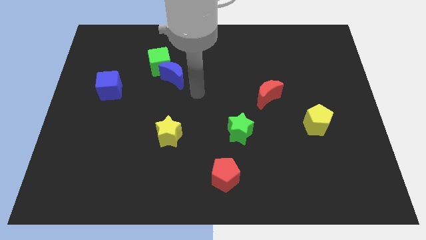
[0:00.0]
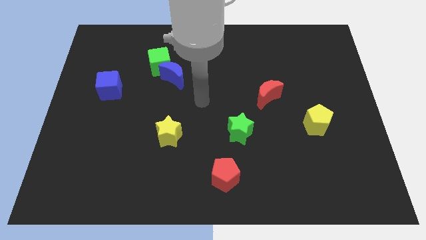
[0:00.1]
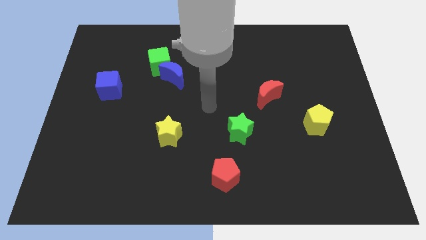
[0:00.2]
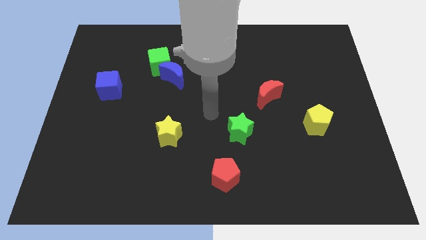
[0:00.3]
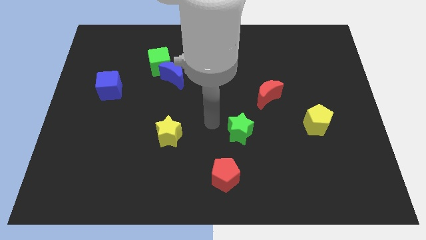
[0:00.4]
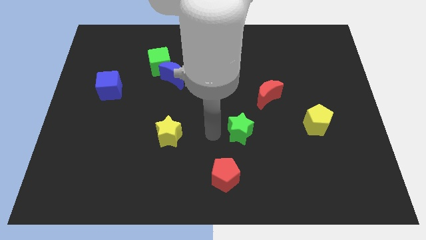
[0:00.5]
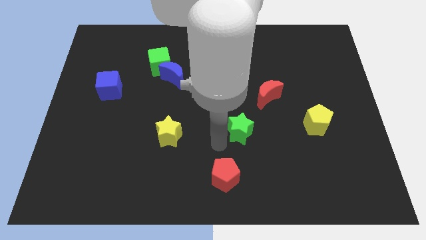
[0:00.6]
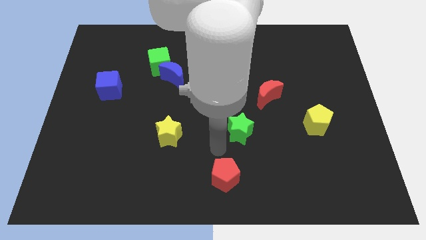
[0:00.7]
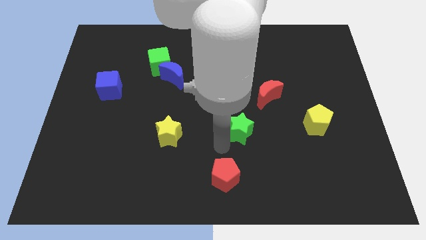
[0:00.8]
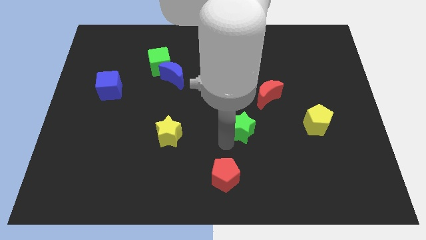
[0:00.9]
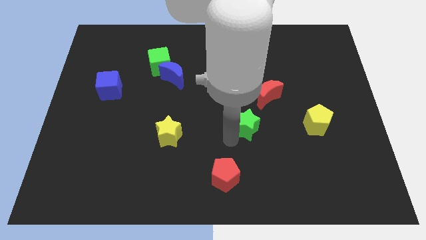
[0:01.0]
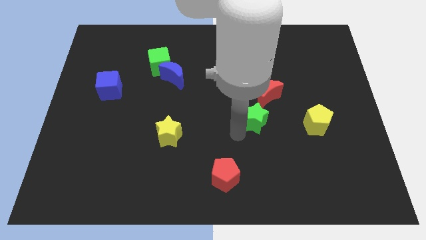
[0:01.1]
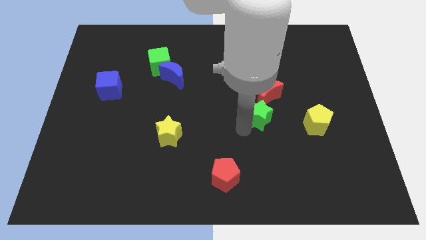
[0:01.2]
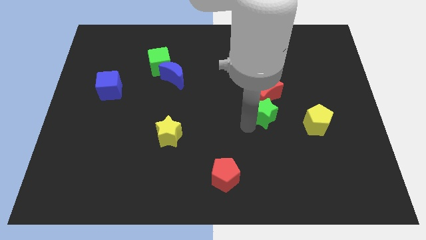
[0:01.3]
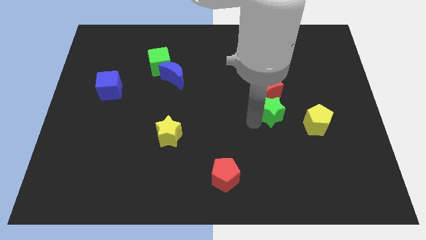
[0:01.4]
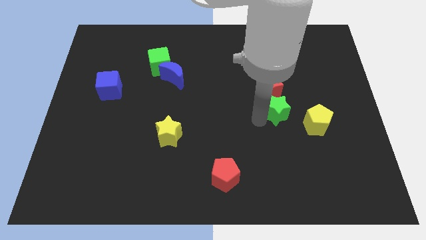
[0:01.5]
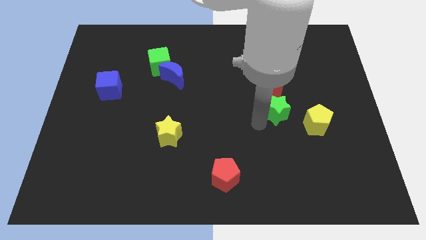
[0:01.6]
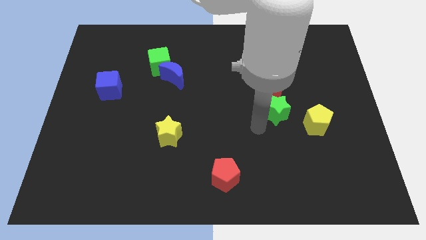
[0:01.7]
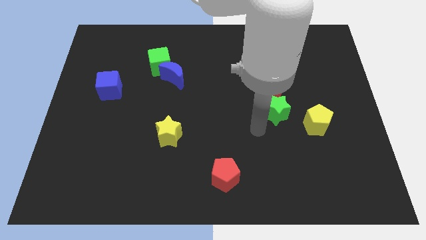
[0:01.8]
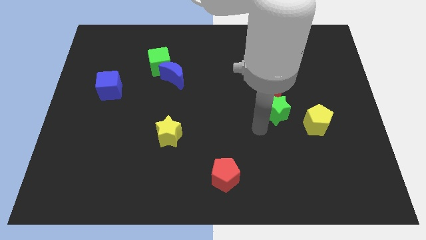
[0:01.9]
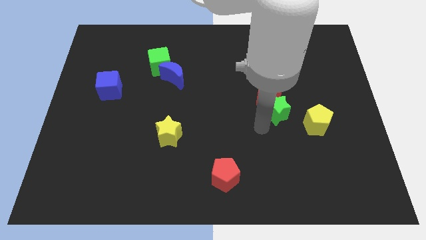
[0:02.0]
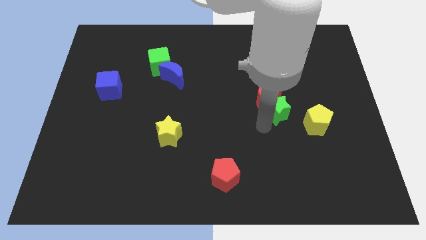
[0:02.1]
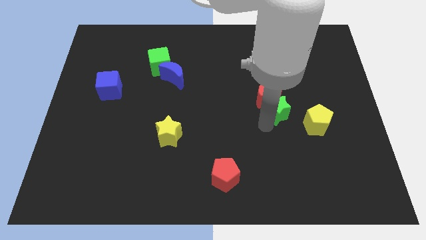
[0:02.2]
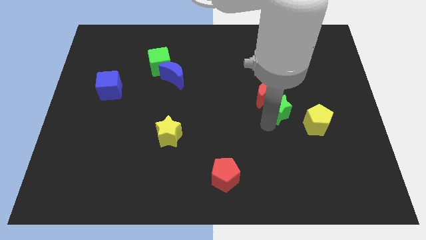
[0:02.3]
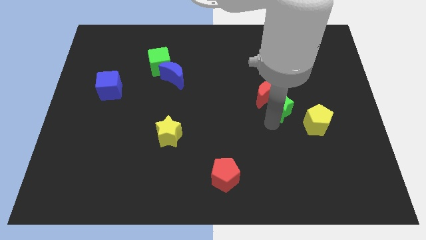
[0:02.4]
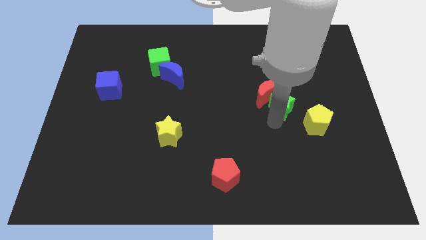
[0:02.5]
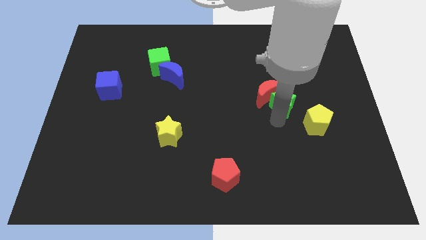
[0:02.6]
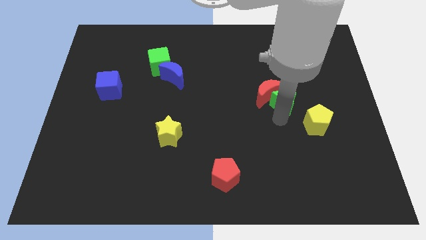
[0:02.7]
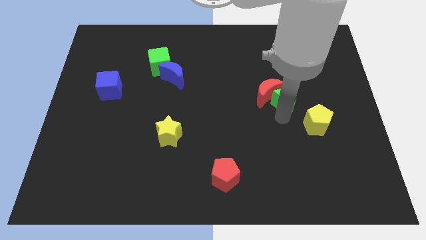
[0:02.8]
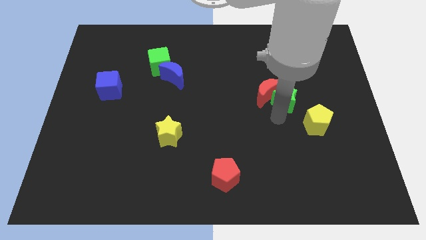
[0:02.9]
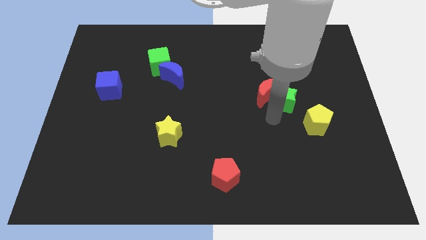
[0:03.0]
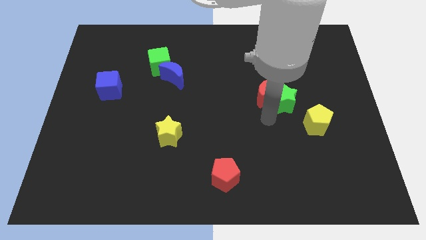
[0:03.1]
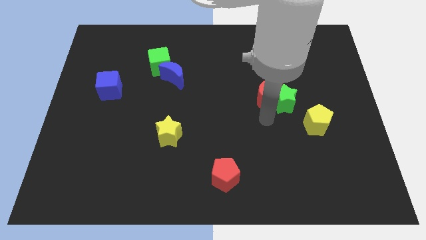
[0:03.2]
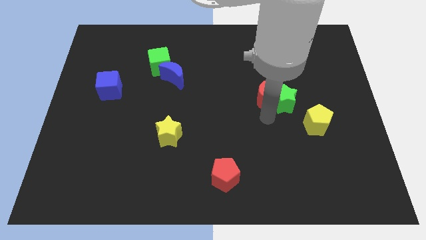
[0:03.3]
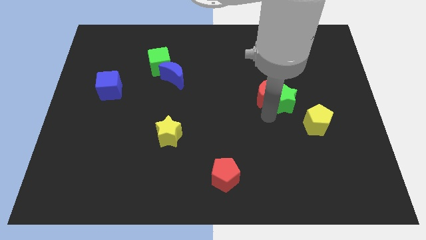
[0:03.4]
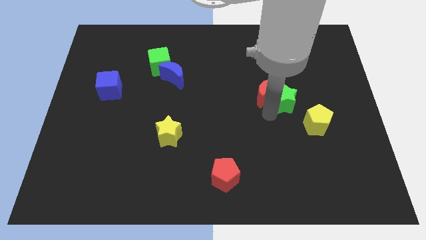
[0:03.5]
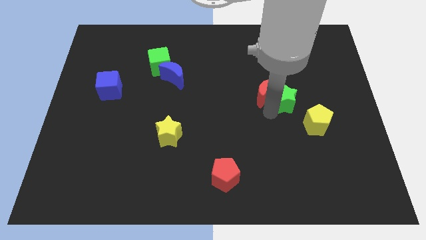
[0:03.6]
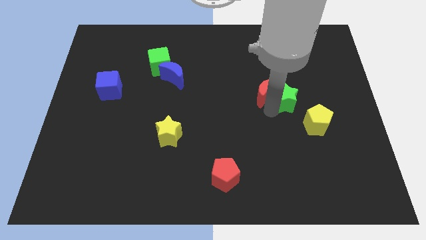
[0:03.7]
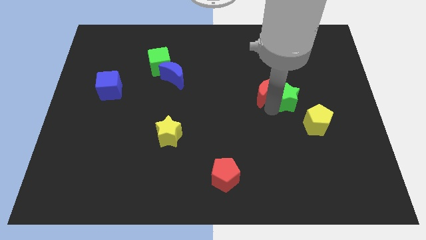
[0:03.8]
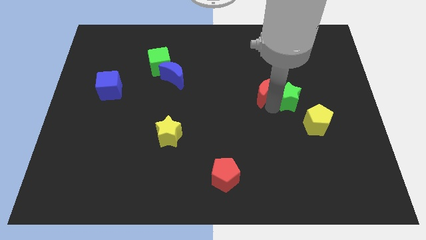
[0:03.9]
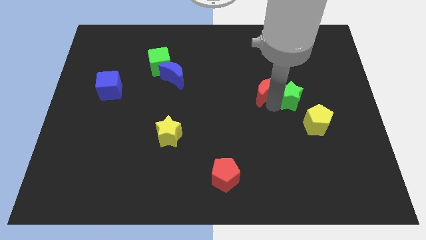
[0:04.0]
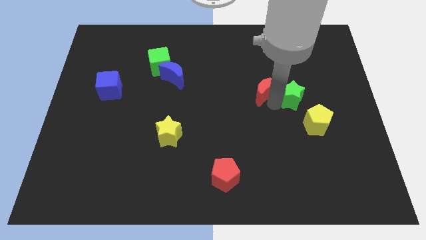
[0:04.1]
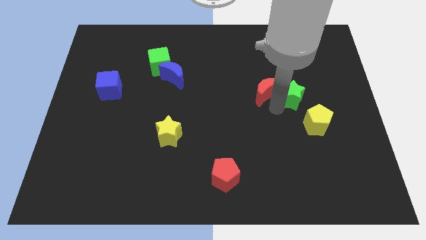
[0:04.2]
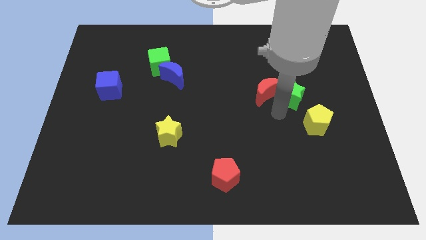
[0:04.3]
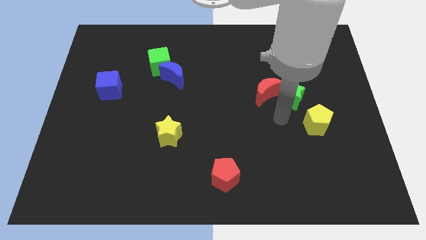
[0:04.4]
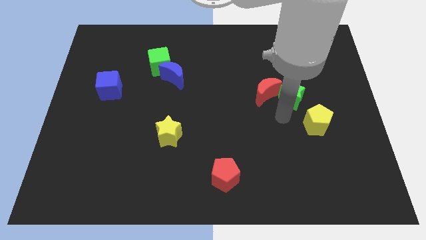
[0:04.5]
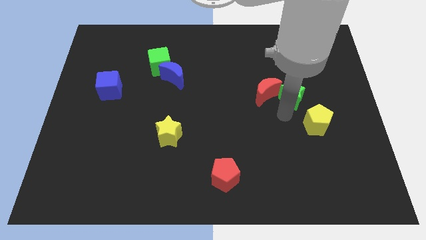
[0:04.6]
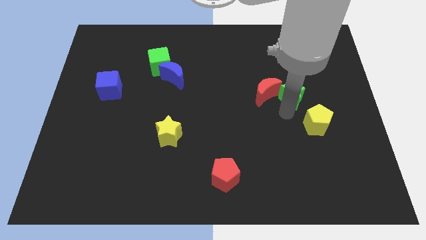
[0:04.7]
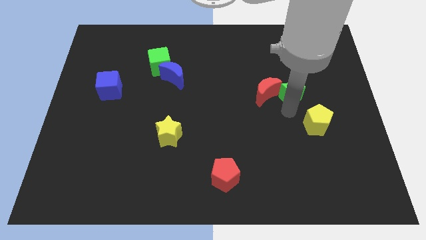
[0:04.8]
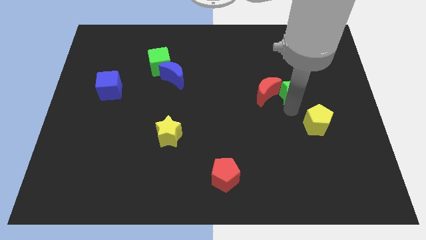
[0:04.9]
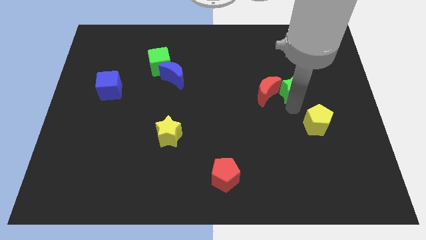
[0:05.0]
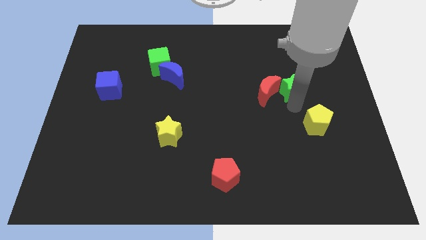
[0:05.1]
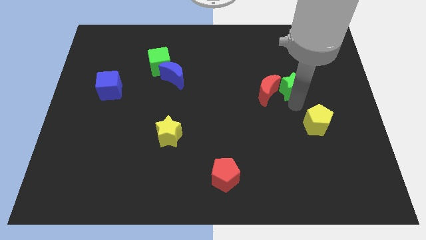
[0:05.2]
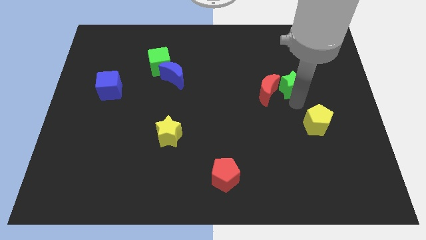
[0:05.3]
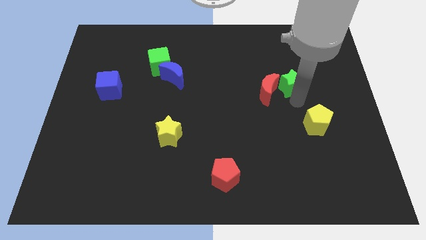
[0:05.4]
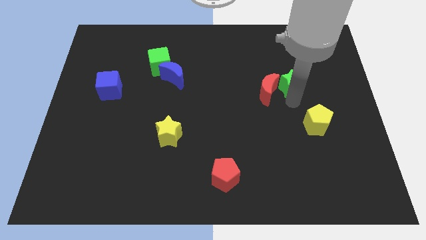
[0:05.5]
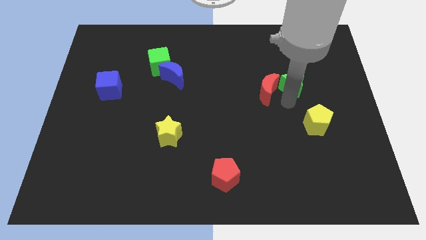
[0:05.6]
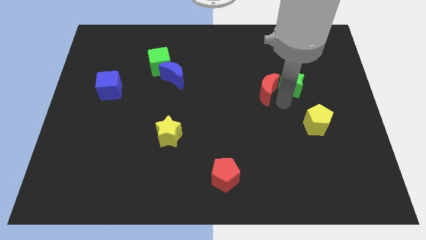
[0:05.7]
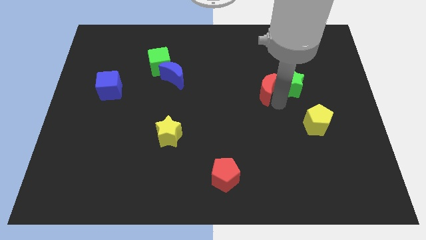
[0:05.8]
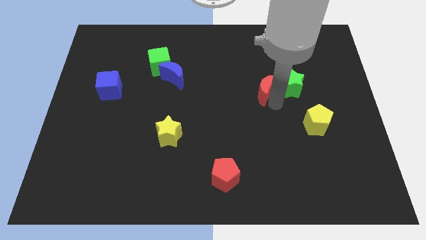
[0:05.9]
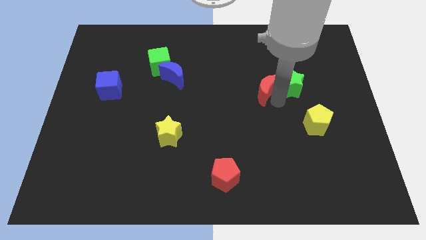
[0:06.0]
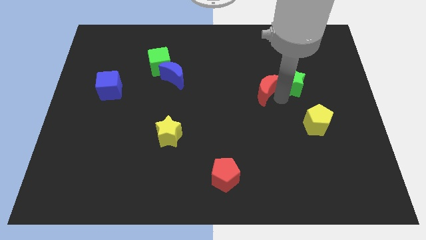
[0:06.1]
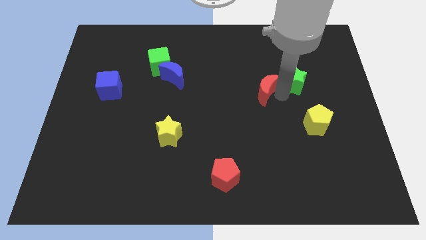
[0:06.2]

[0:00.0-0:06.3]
move the green star upwards and right diagonally

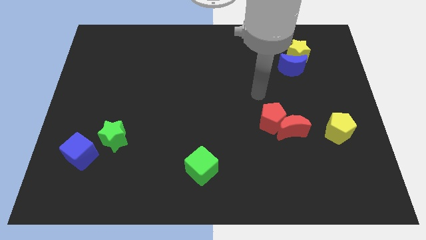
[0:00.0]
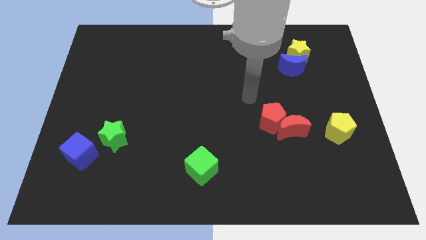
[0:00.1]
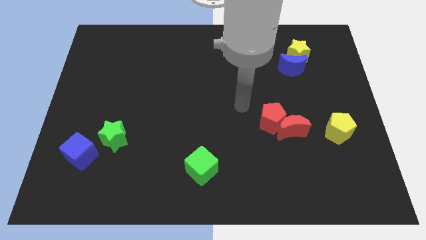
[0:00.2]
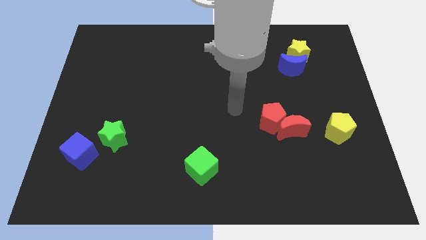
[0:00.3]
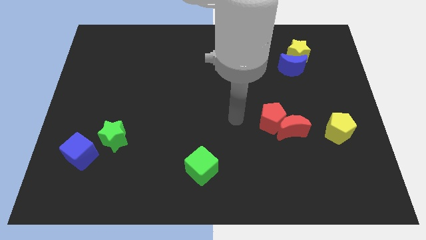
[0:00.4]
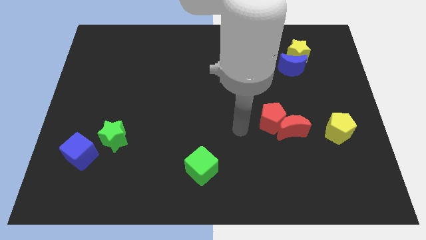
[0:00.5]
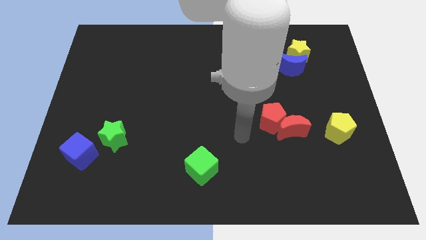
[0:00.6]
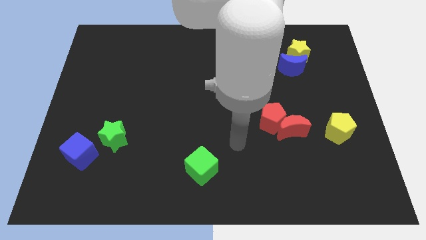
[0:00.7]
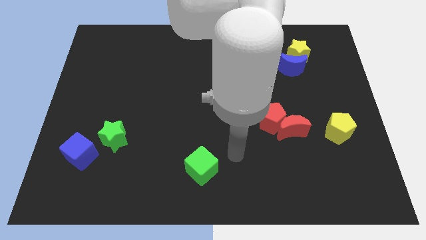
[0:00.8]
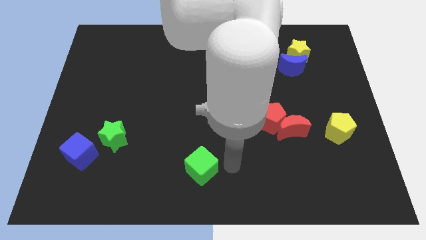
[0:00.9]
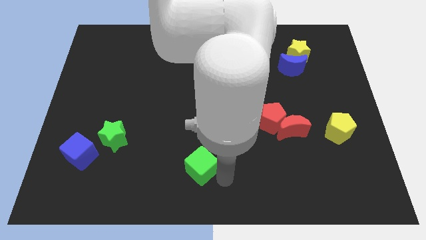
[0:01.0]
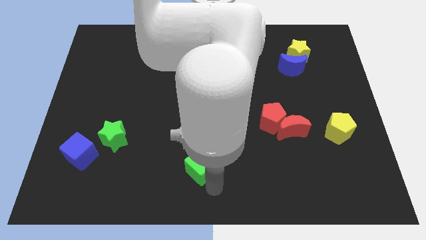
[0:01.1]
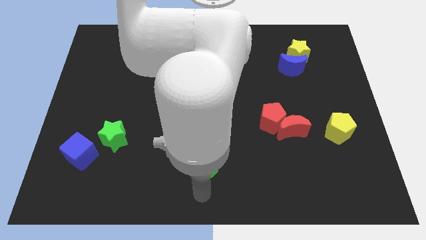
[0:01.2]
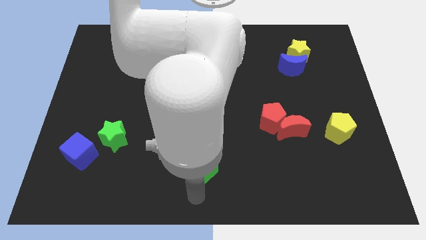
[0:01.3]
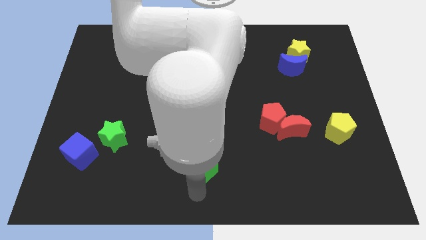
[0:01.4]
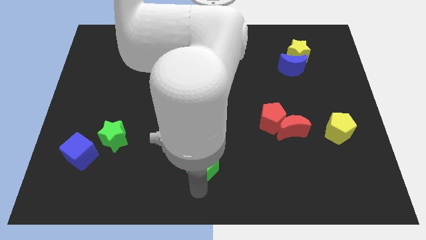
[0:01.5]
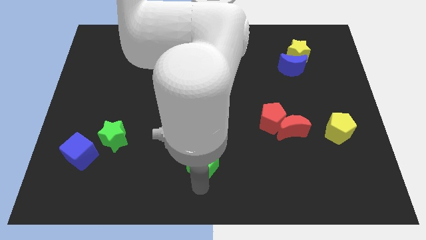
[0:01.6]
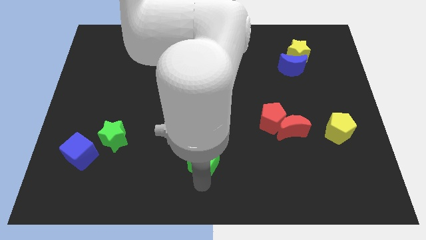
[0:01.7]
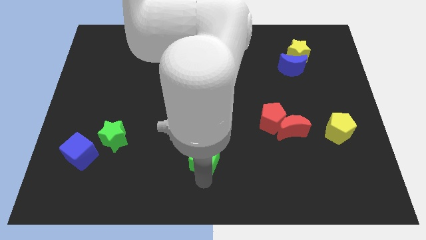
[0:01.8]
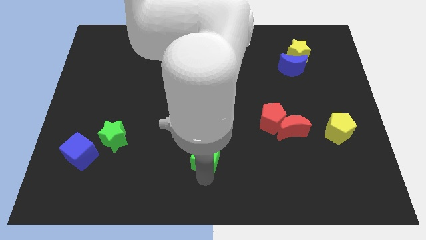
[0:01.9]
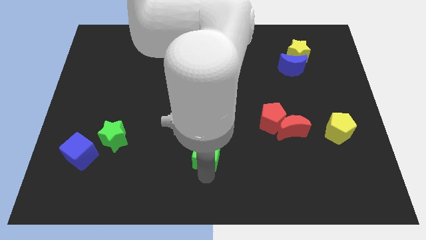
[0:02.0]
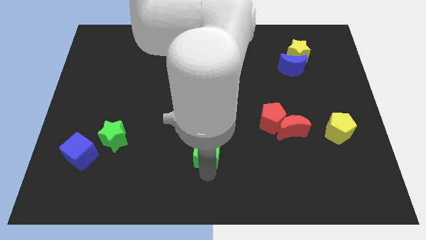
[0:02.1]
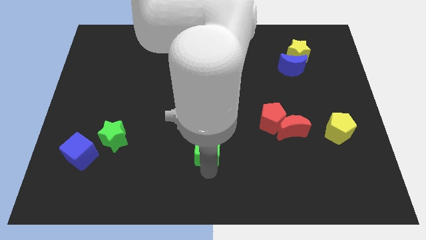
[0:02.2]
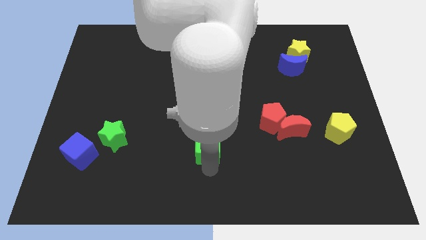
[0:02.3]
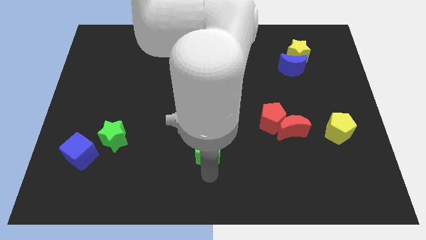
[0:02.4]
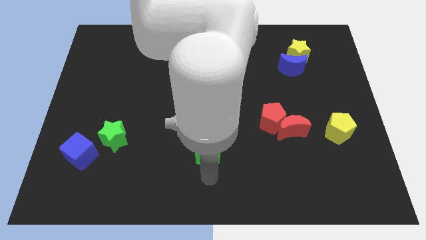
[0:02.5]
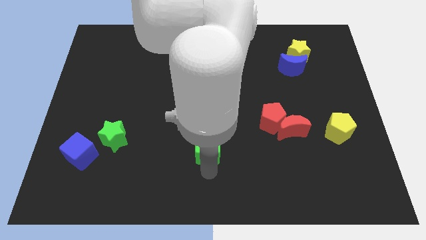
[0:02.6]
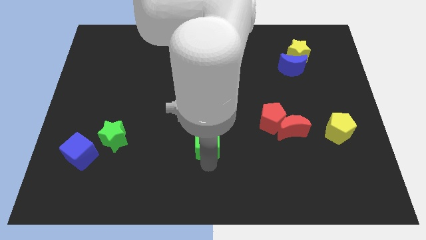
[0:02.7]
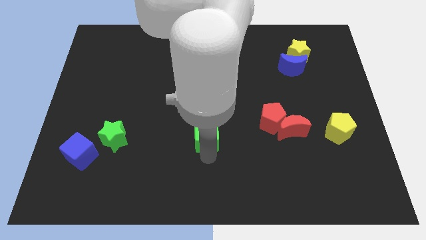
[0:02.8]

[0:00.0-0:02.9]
slide the green cube somewhat up
